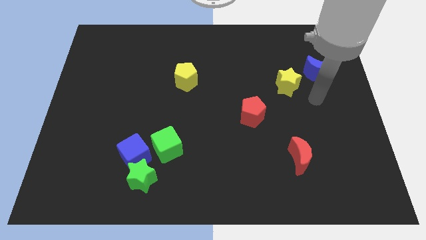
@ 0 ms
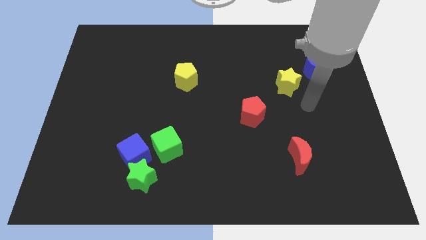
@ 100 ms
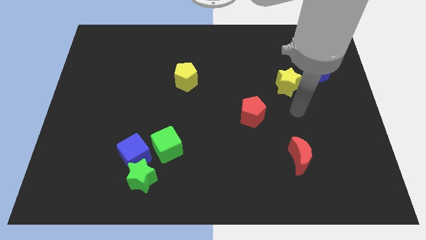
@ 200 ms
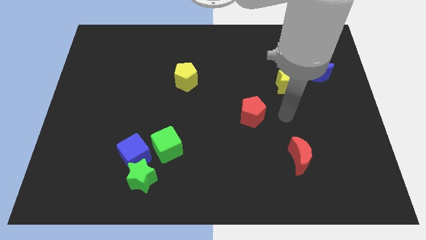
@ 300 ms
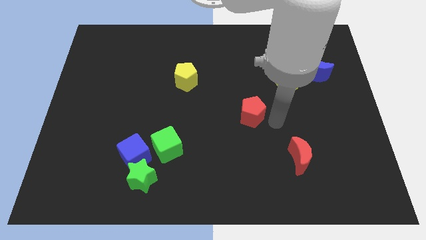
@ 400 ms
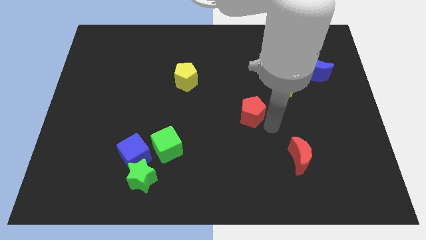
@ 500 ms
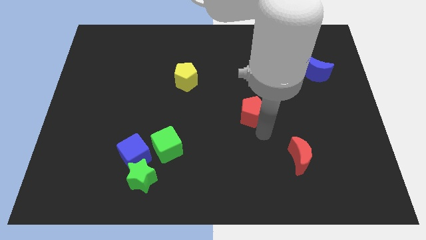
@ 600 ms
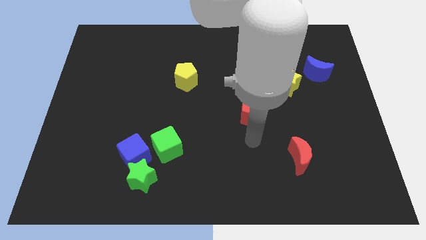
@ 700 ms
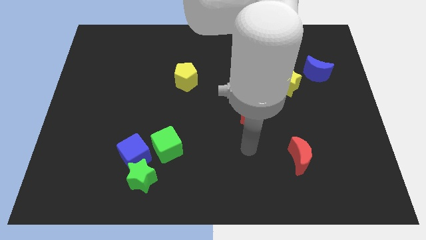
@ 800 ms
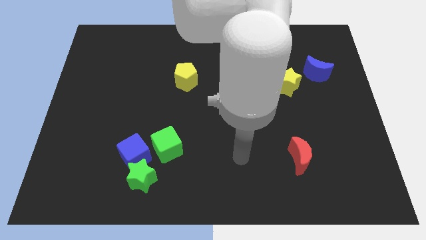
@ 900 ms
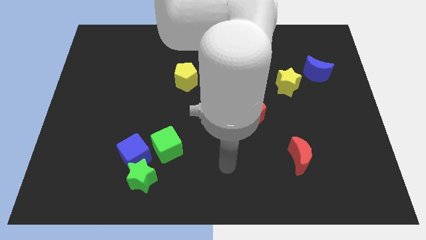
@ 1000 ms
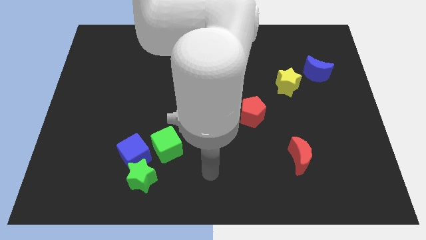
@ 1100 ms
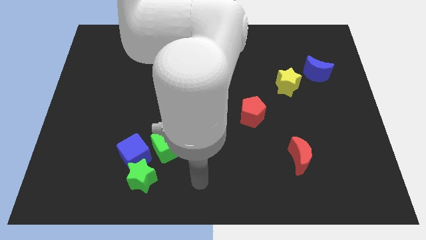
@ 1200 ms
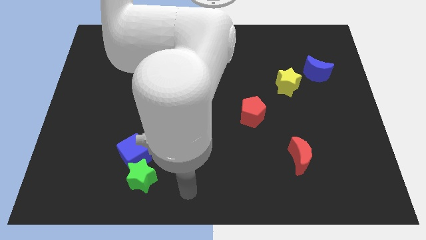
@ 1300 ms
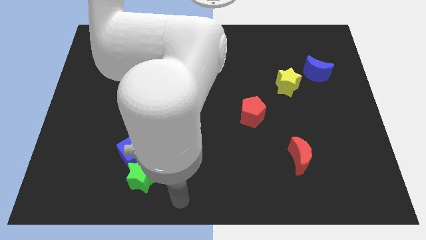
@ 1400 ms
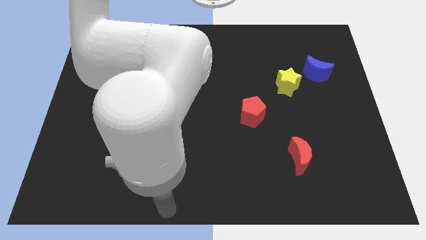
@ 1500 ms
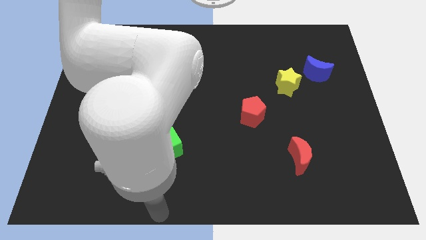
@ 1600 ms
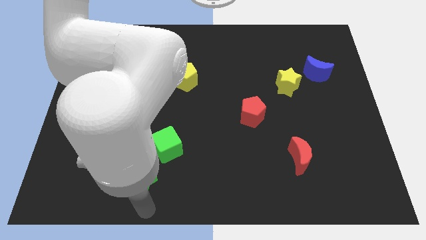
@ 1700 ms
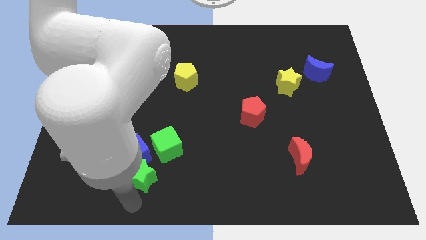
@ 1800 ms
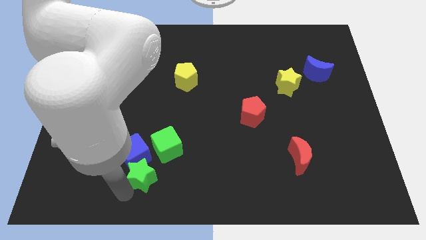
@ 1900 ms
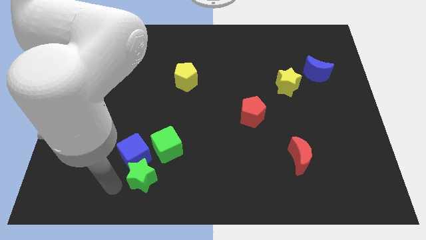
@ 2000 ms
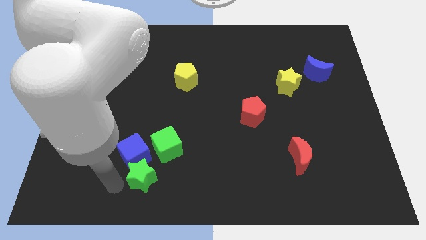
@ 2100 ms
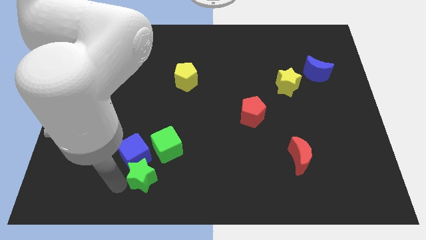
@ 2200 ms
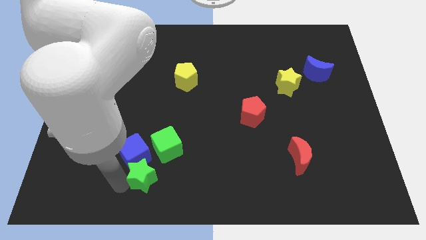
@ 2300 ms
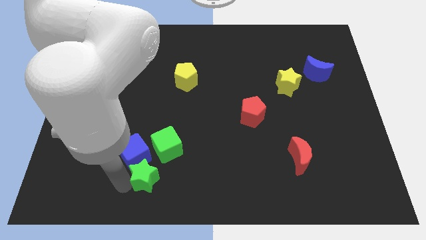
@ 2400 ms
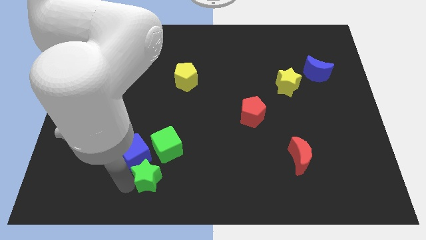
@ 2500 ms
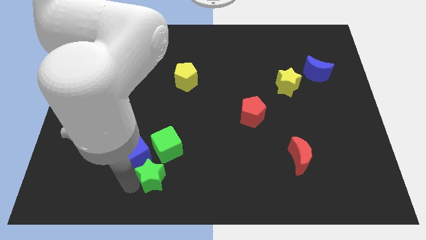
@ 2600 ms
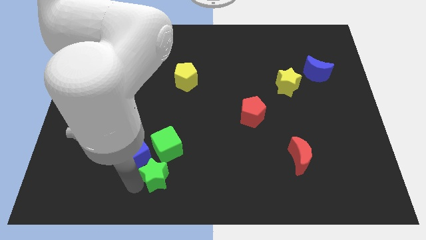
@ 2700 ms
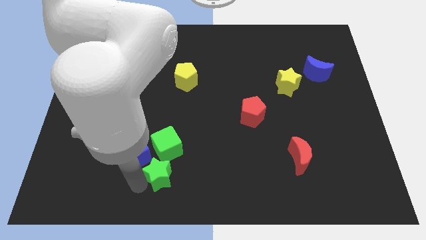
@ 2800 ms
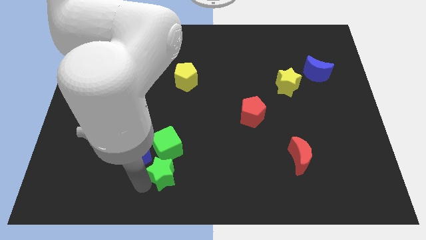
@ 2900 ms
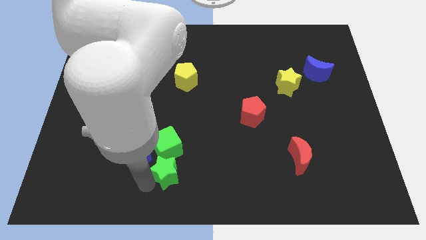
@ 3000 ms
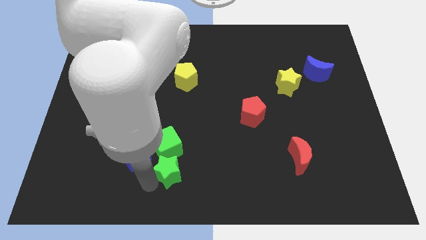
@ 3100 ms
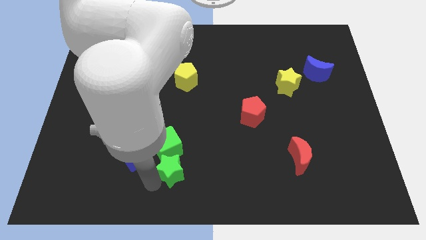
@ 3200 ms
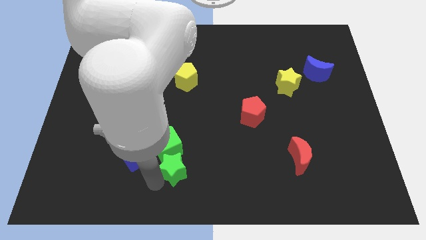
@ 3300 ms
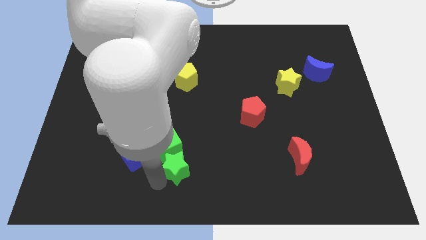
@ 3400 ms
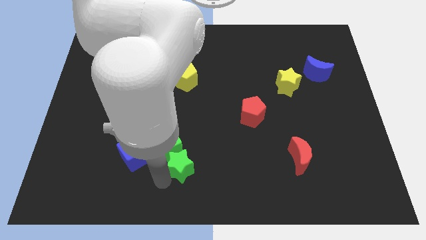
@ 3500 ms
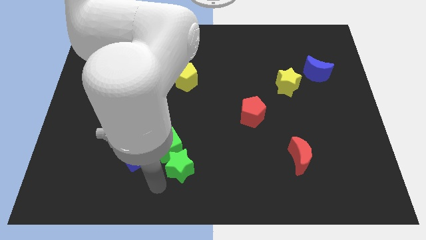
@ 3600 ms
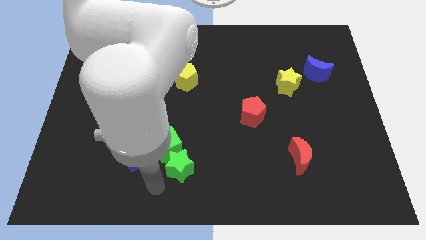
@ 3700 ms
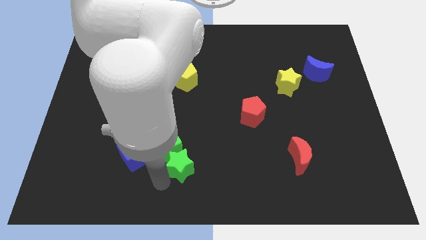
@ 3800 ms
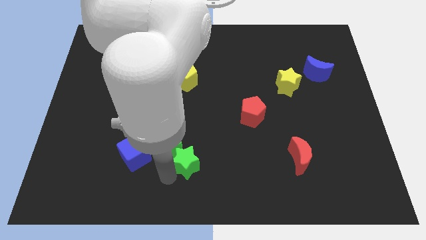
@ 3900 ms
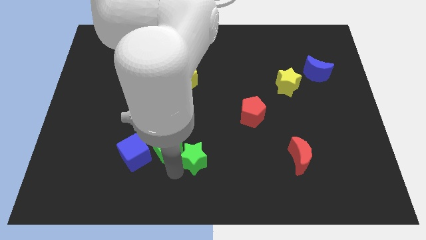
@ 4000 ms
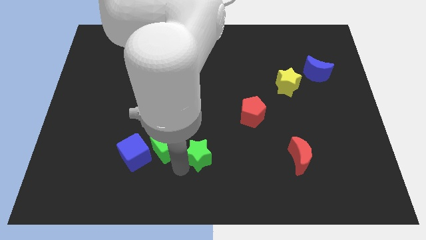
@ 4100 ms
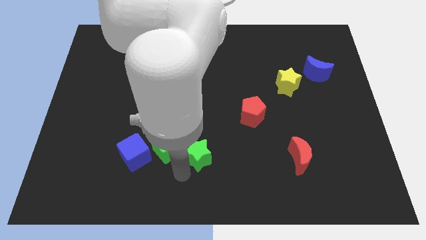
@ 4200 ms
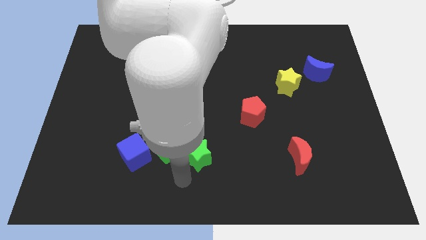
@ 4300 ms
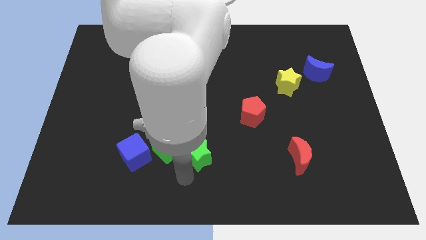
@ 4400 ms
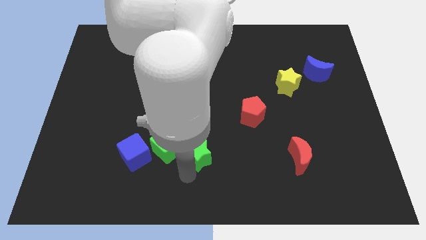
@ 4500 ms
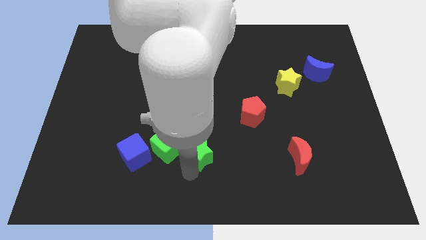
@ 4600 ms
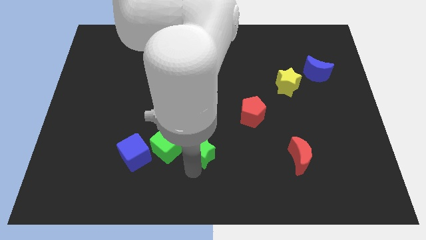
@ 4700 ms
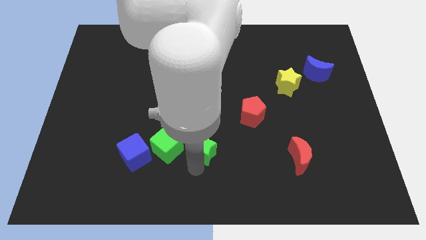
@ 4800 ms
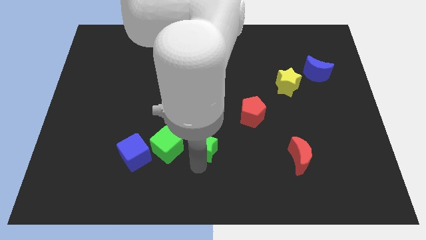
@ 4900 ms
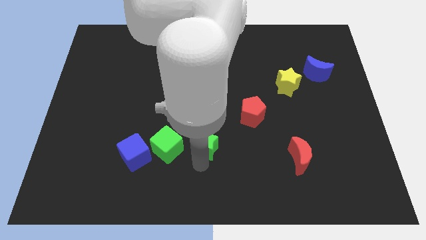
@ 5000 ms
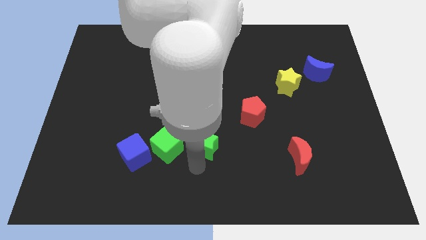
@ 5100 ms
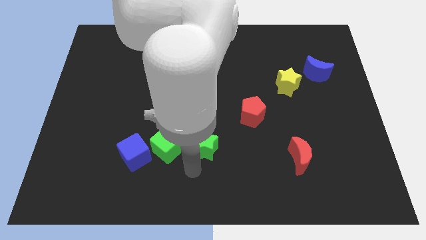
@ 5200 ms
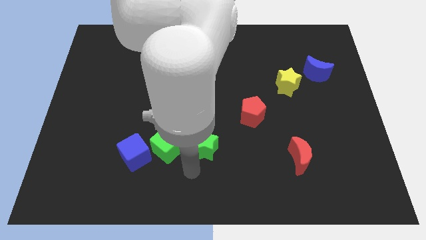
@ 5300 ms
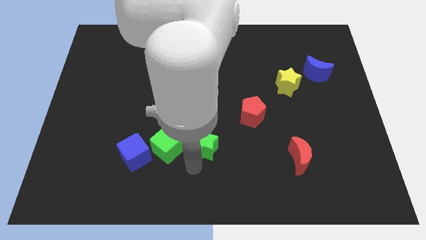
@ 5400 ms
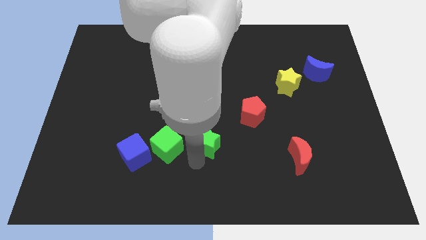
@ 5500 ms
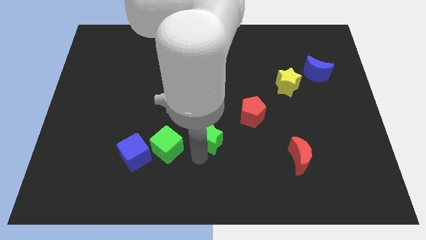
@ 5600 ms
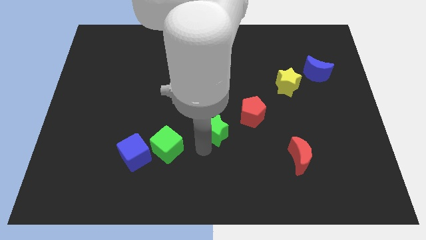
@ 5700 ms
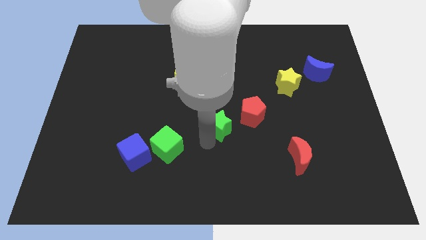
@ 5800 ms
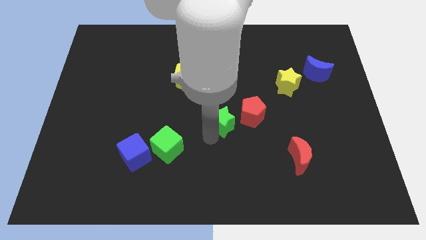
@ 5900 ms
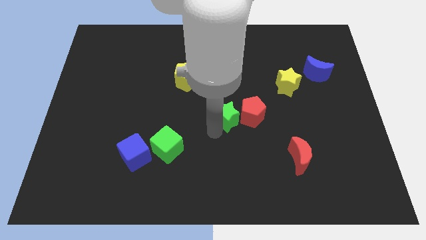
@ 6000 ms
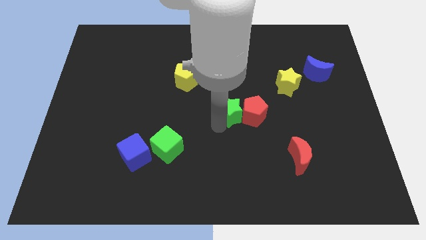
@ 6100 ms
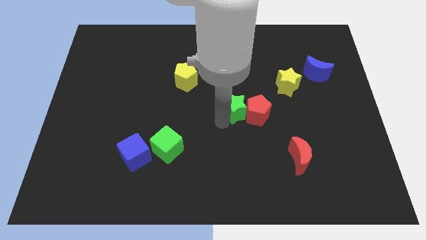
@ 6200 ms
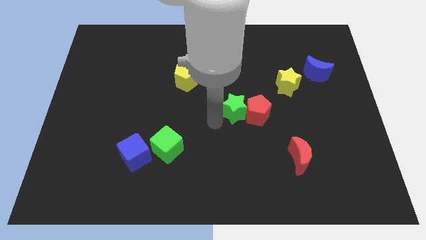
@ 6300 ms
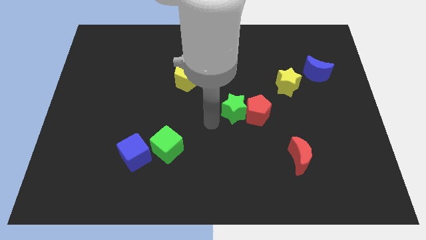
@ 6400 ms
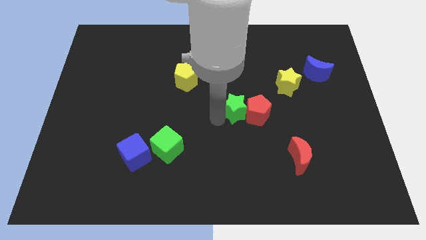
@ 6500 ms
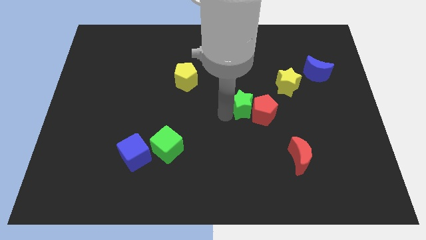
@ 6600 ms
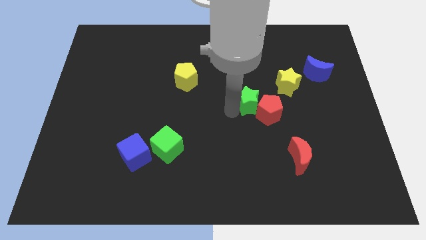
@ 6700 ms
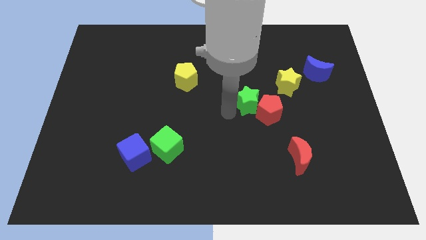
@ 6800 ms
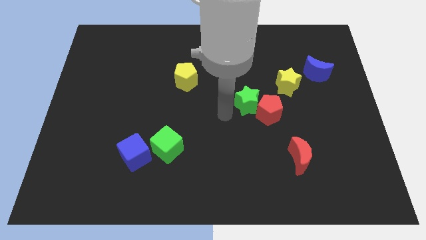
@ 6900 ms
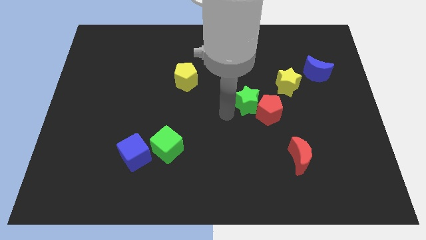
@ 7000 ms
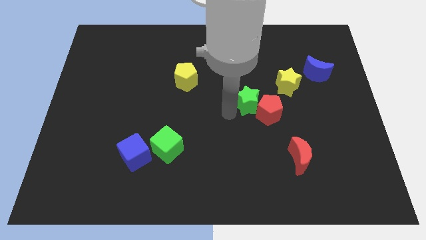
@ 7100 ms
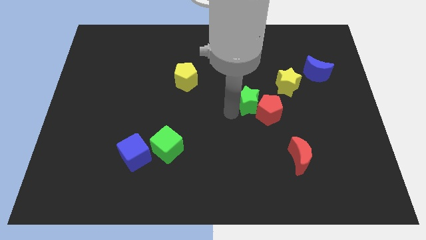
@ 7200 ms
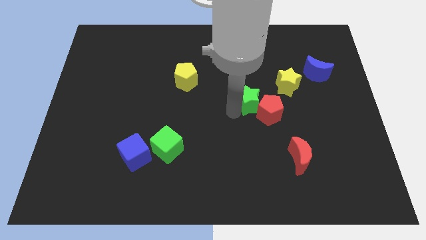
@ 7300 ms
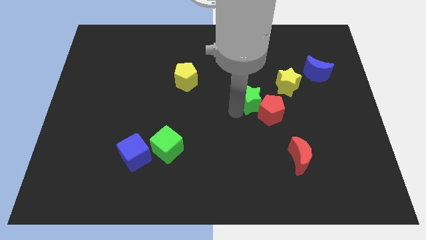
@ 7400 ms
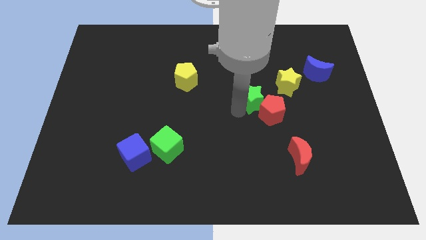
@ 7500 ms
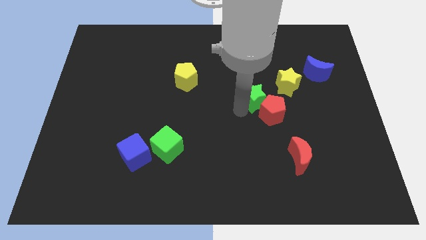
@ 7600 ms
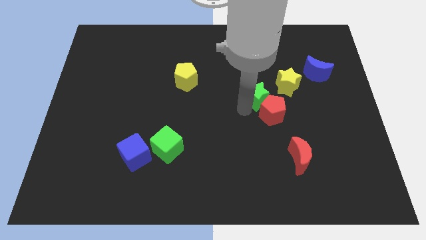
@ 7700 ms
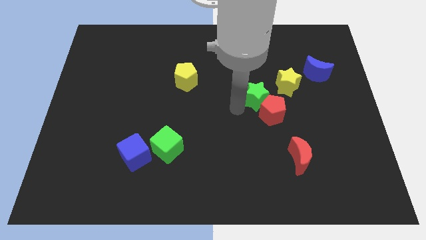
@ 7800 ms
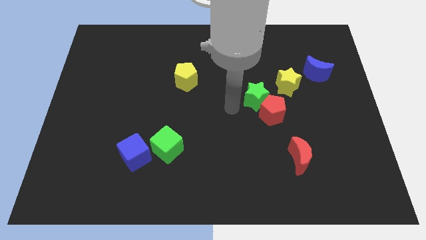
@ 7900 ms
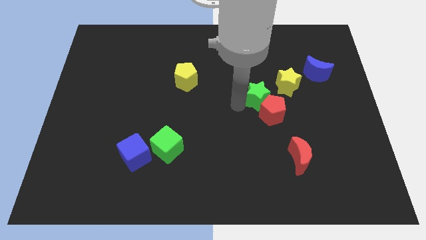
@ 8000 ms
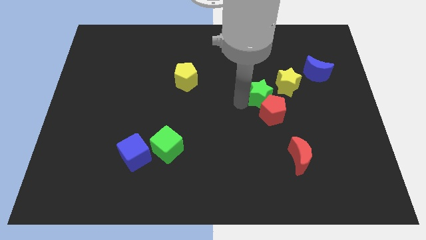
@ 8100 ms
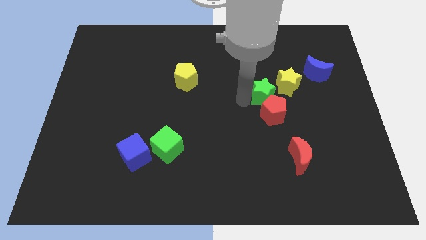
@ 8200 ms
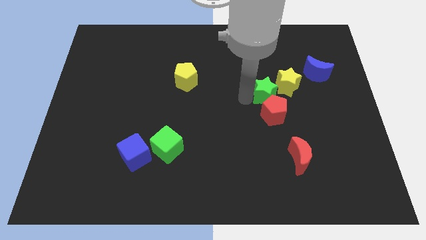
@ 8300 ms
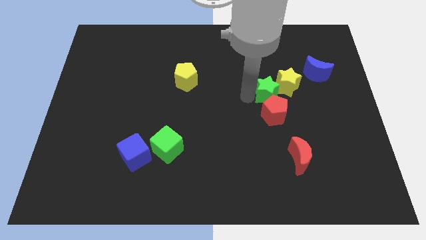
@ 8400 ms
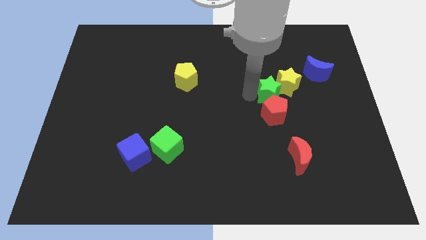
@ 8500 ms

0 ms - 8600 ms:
slide the green star towards the yellow star
